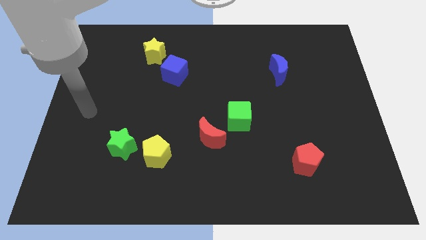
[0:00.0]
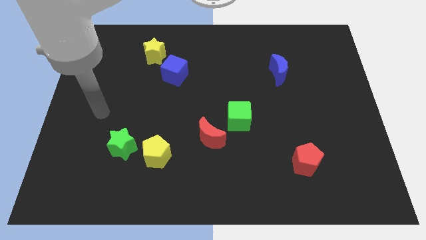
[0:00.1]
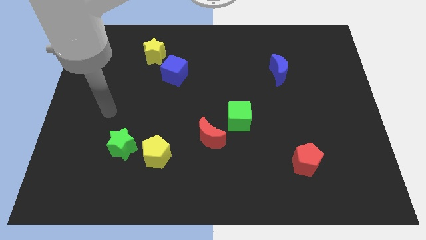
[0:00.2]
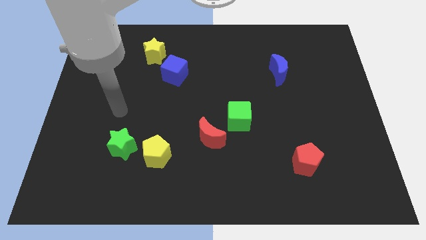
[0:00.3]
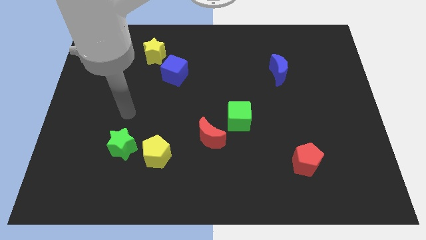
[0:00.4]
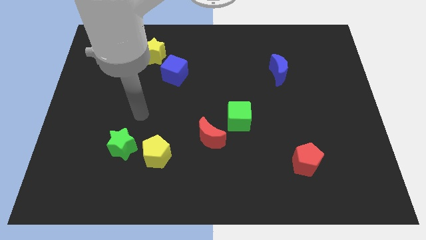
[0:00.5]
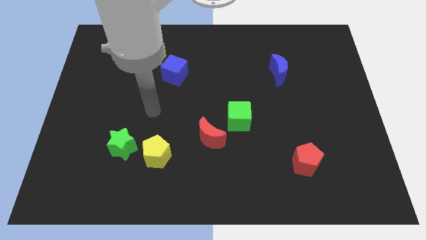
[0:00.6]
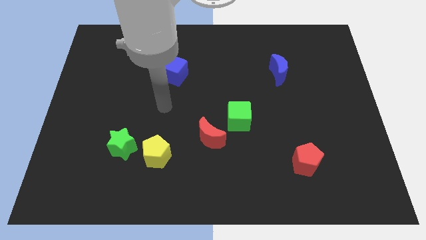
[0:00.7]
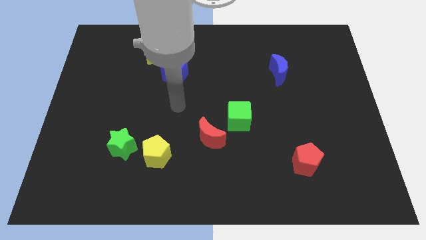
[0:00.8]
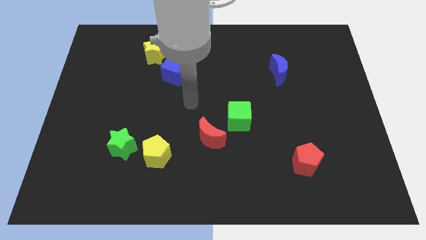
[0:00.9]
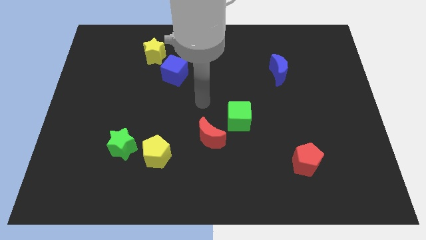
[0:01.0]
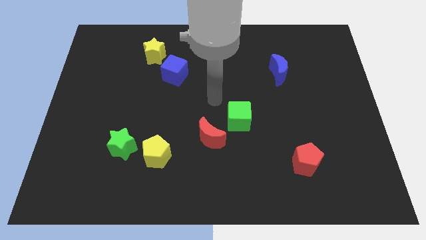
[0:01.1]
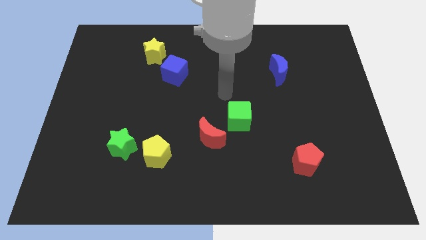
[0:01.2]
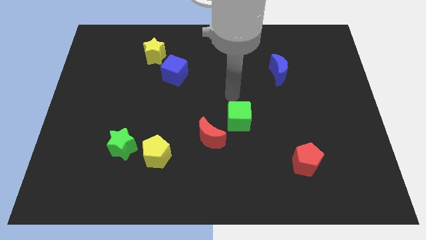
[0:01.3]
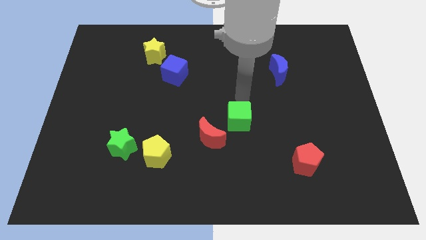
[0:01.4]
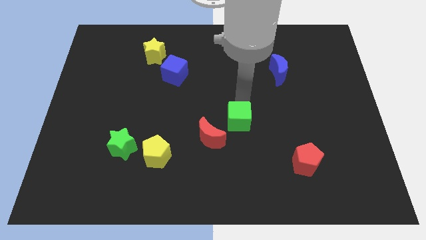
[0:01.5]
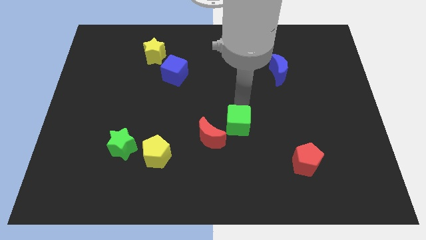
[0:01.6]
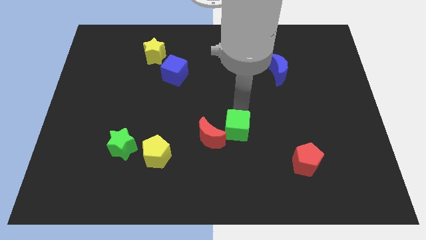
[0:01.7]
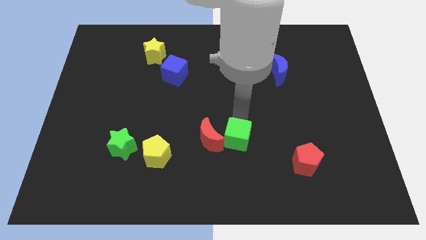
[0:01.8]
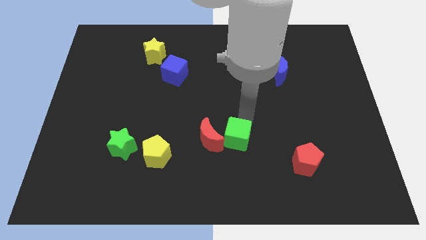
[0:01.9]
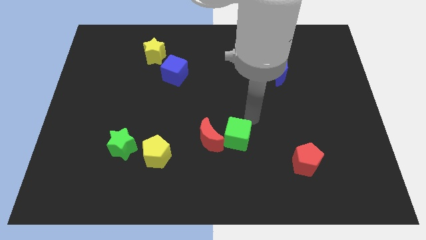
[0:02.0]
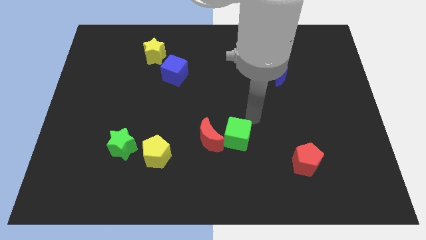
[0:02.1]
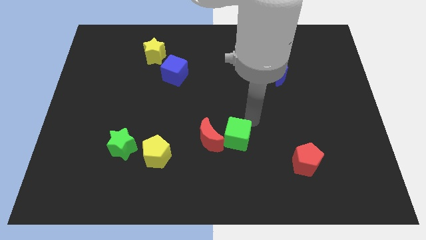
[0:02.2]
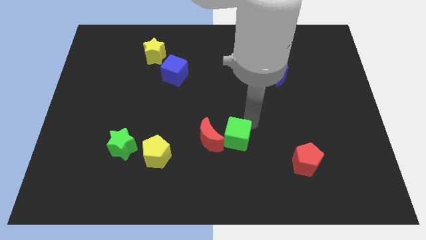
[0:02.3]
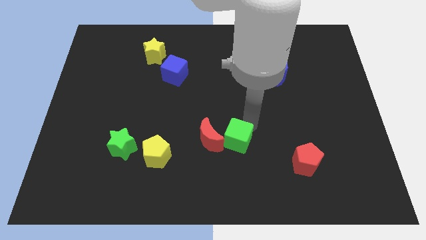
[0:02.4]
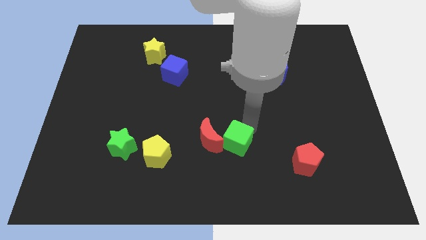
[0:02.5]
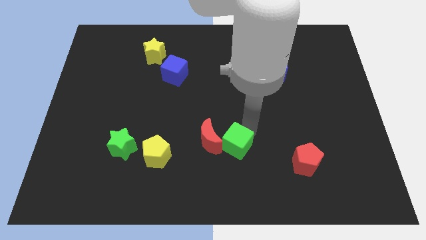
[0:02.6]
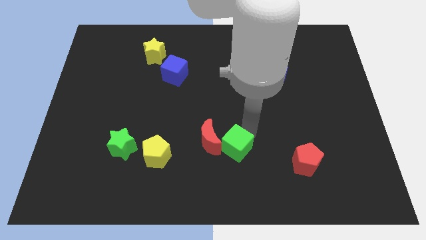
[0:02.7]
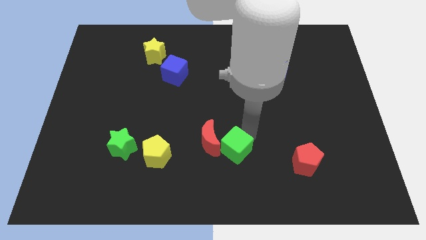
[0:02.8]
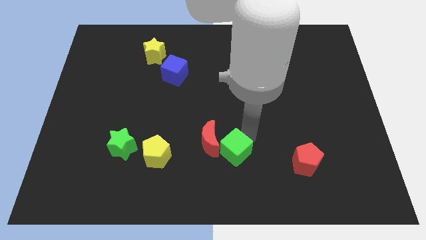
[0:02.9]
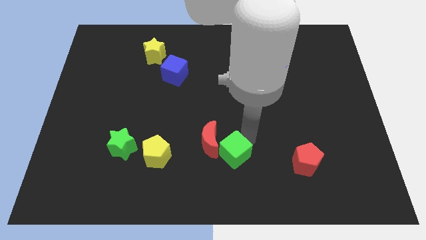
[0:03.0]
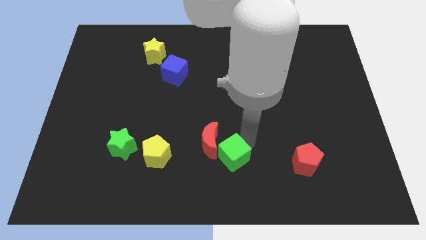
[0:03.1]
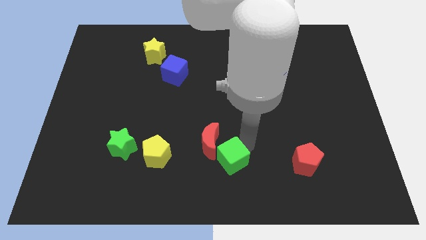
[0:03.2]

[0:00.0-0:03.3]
push the green cube a bit down and then to the left

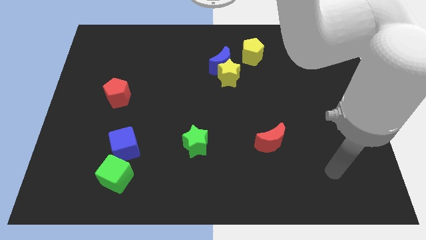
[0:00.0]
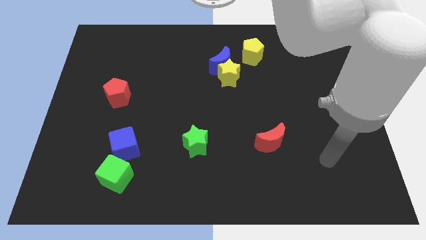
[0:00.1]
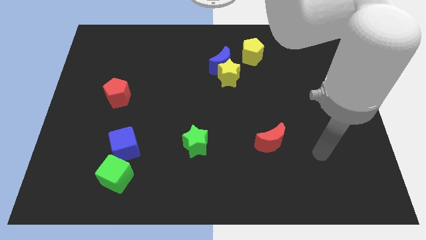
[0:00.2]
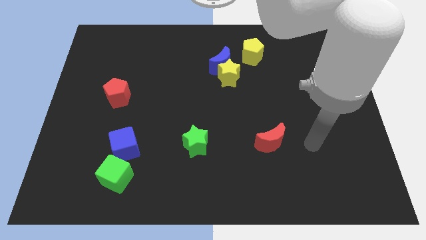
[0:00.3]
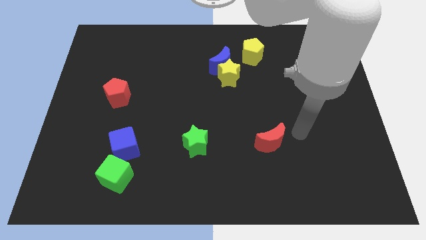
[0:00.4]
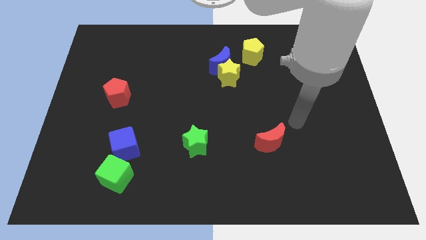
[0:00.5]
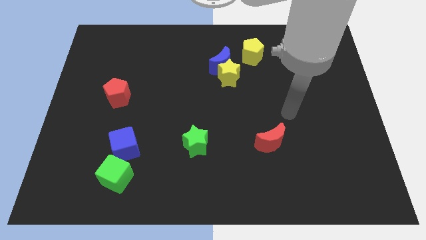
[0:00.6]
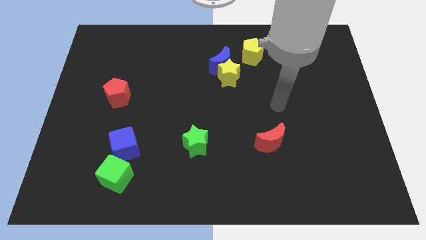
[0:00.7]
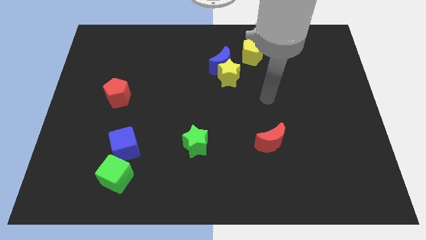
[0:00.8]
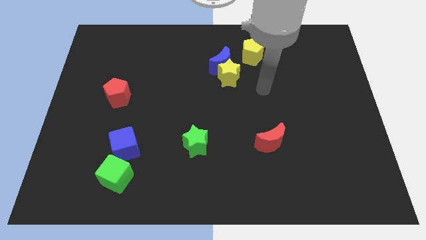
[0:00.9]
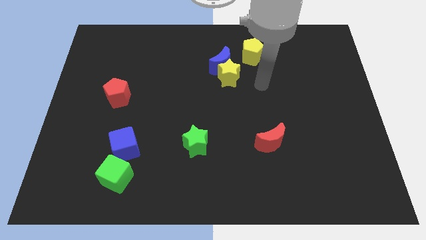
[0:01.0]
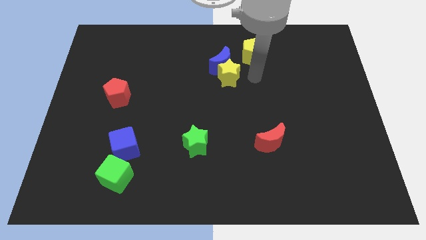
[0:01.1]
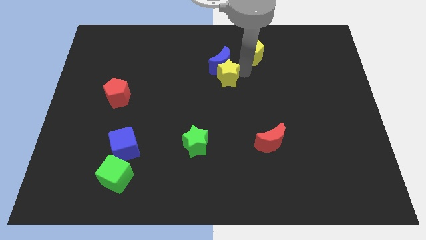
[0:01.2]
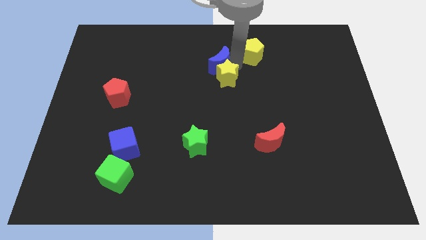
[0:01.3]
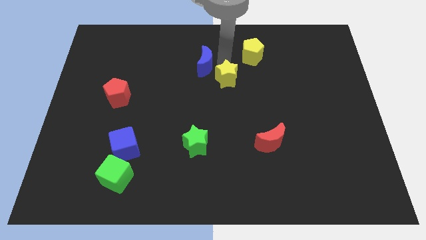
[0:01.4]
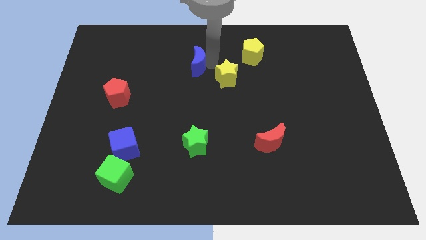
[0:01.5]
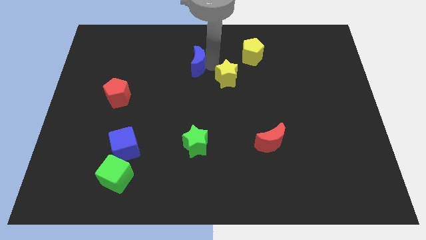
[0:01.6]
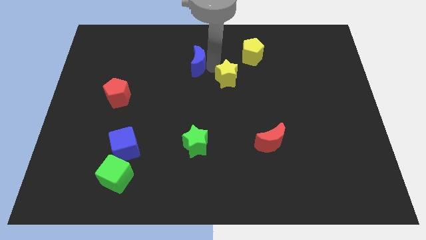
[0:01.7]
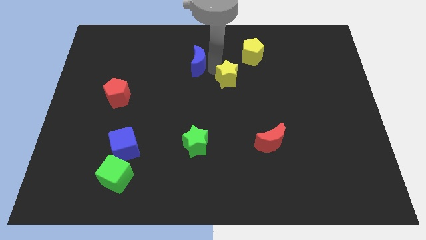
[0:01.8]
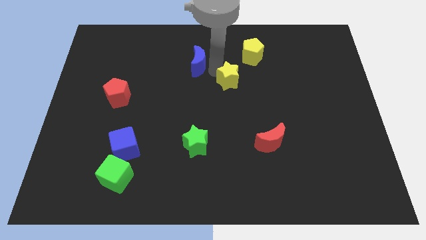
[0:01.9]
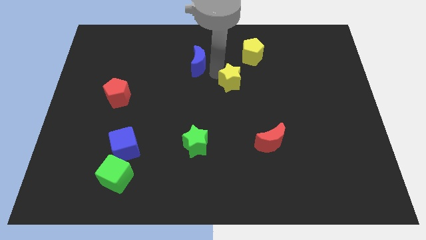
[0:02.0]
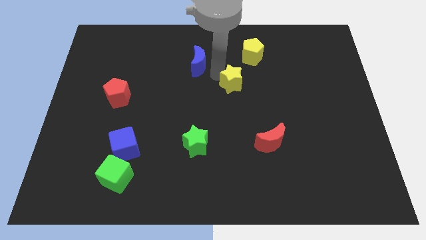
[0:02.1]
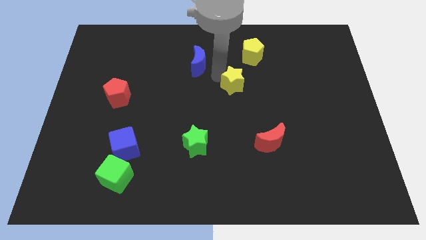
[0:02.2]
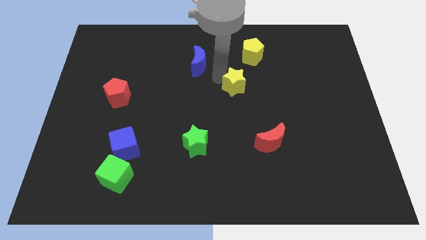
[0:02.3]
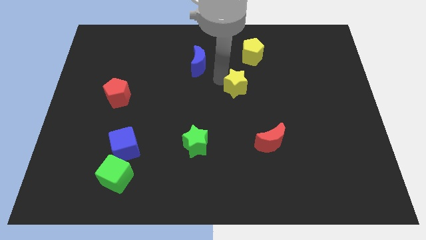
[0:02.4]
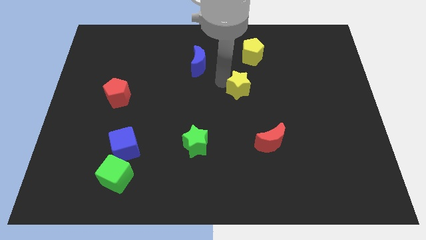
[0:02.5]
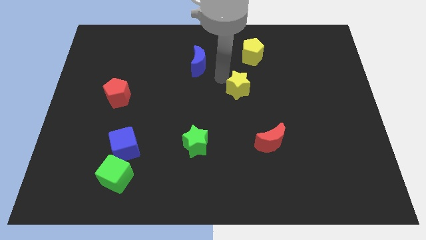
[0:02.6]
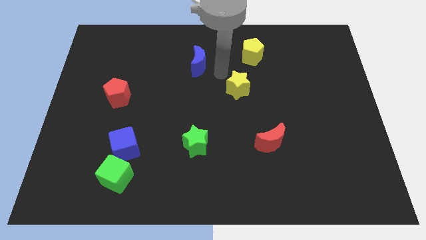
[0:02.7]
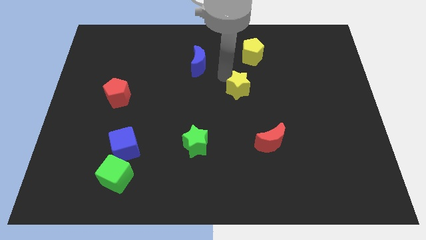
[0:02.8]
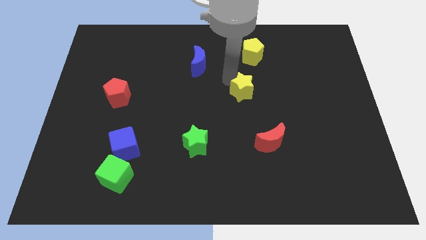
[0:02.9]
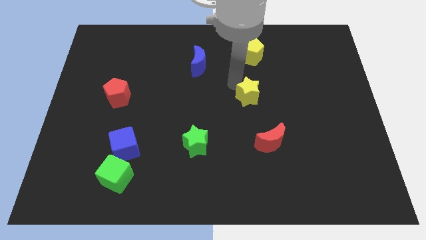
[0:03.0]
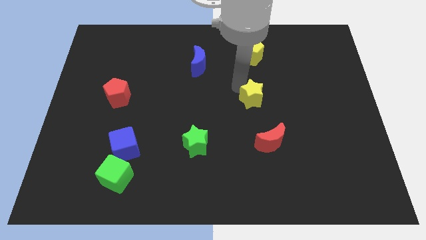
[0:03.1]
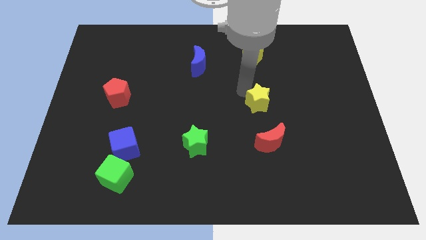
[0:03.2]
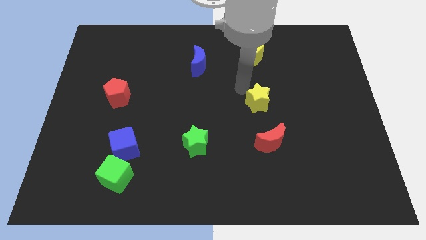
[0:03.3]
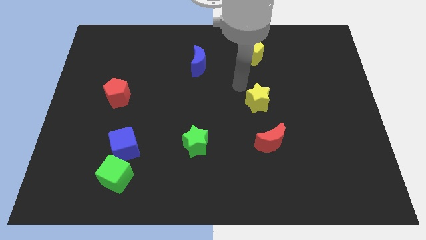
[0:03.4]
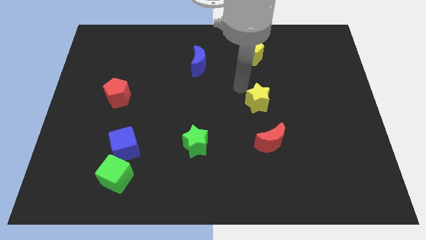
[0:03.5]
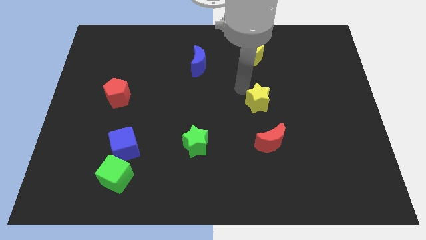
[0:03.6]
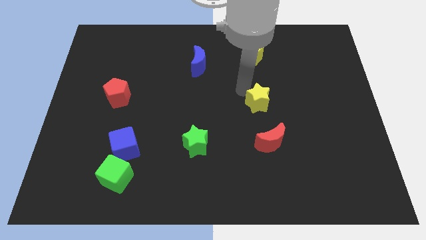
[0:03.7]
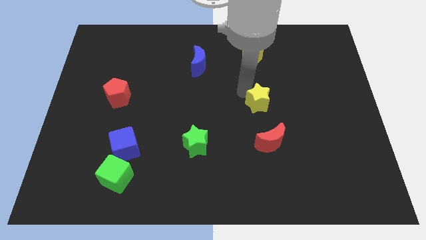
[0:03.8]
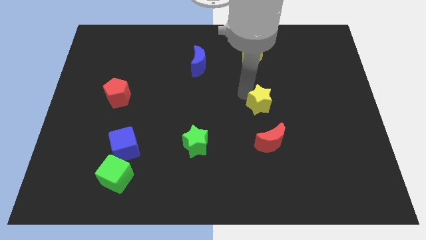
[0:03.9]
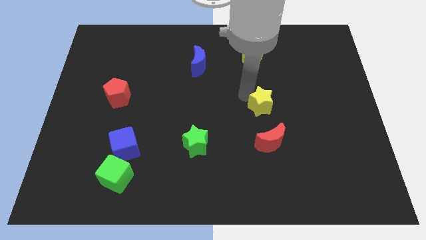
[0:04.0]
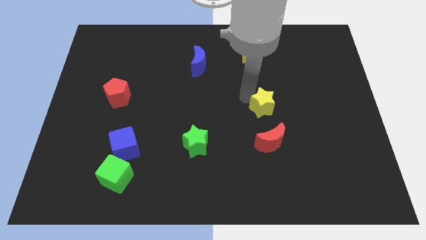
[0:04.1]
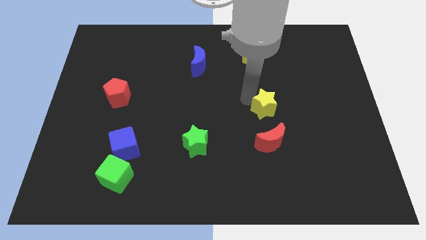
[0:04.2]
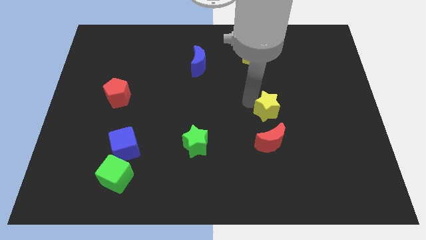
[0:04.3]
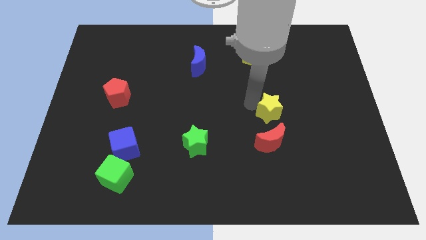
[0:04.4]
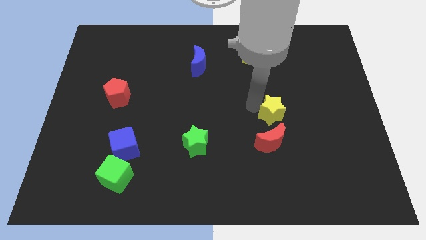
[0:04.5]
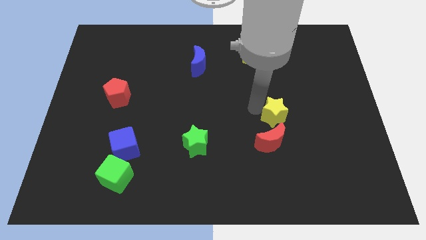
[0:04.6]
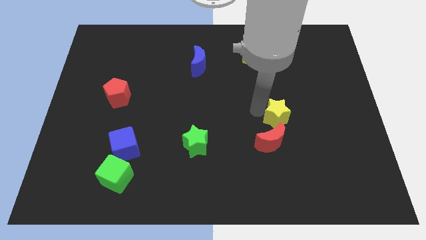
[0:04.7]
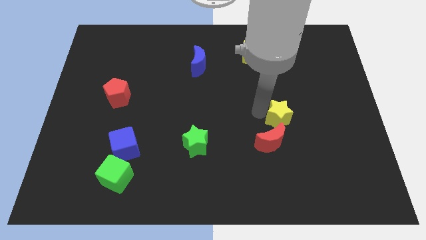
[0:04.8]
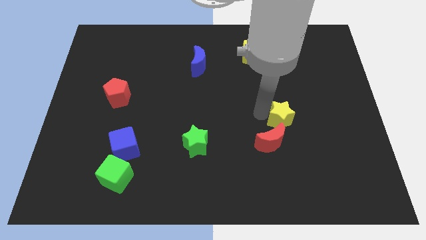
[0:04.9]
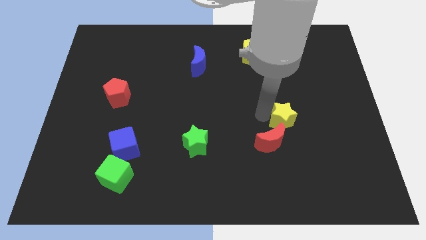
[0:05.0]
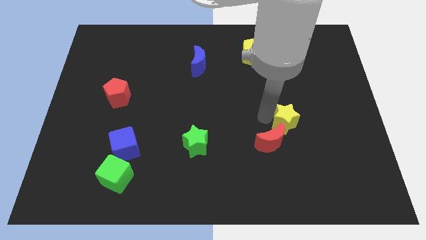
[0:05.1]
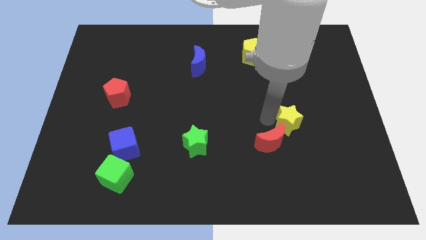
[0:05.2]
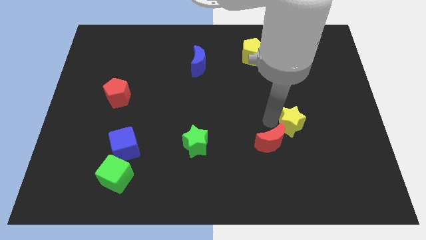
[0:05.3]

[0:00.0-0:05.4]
move the yellow star diagonally down and to the right
